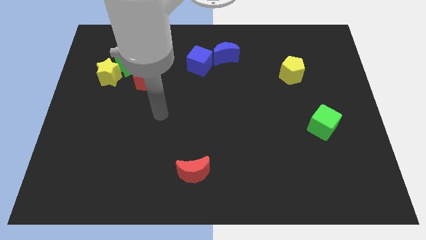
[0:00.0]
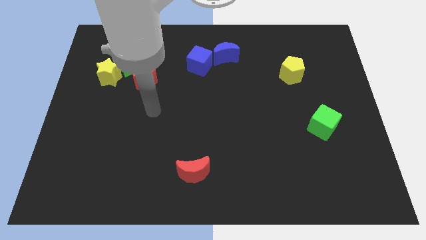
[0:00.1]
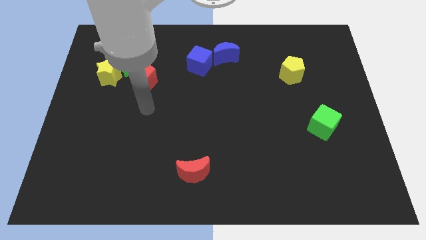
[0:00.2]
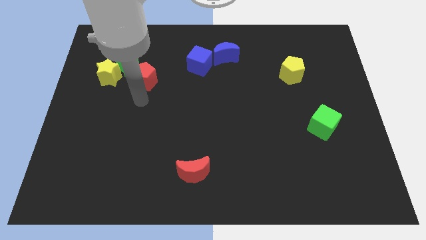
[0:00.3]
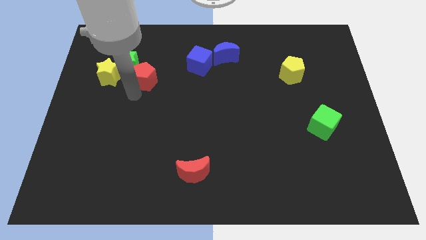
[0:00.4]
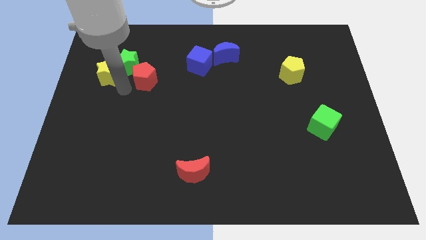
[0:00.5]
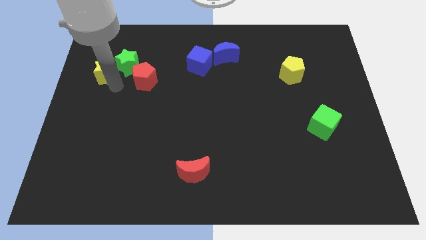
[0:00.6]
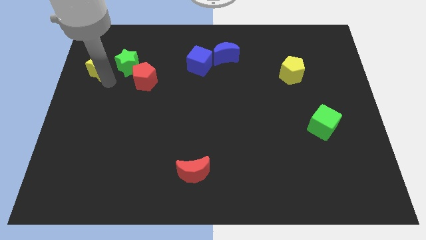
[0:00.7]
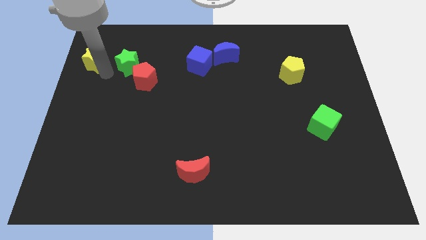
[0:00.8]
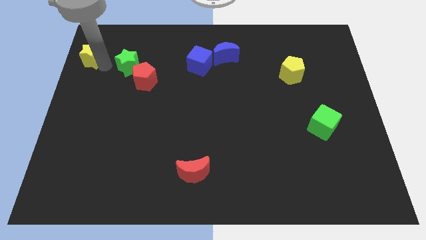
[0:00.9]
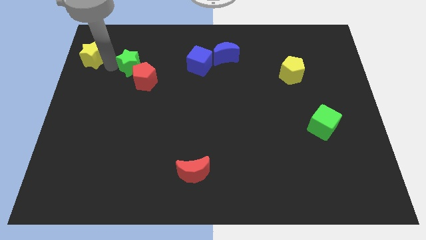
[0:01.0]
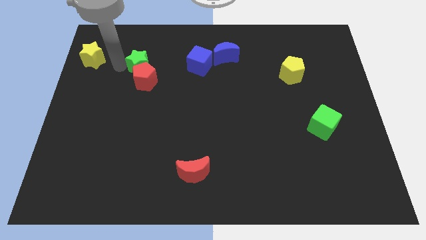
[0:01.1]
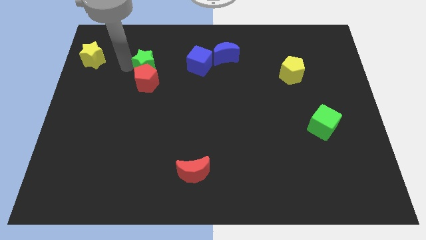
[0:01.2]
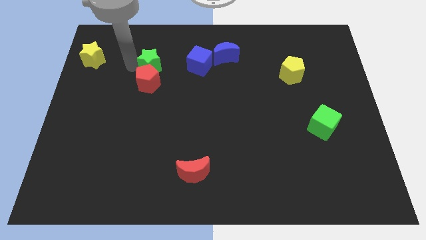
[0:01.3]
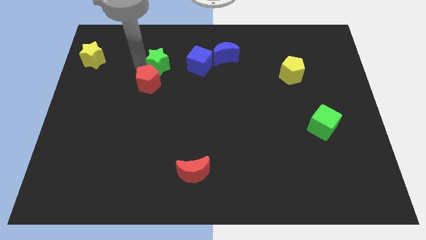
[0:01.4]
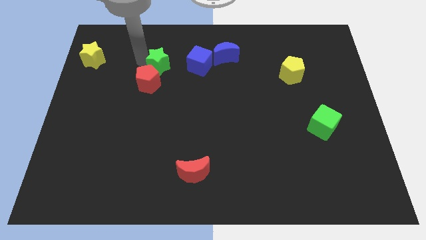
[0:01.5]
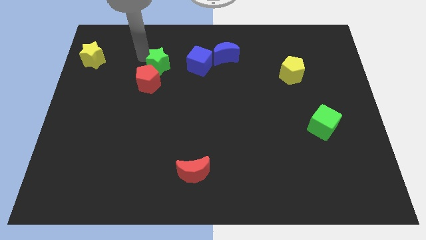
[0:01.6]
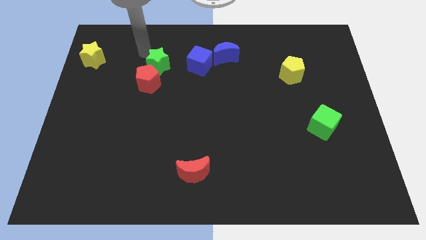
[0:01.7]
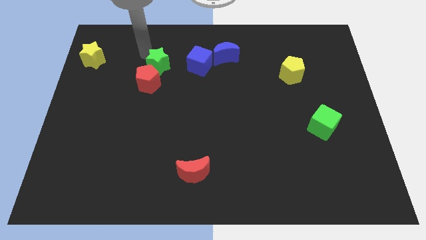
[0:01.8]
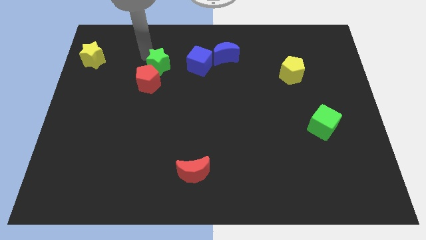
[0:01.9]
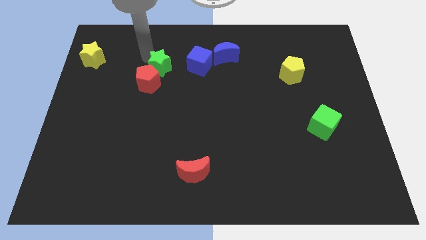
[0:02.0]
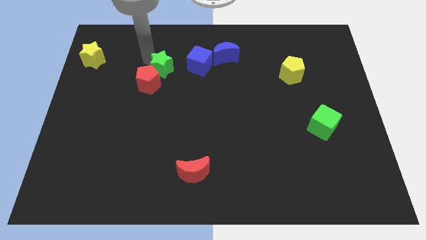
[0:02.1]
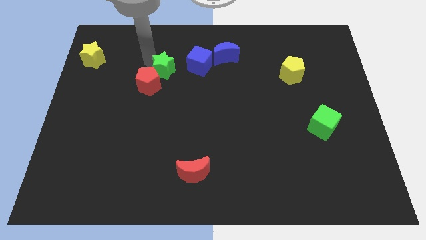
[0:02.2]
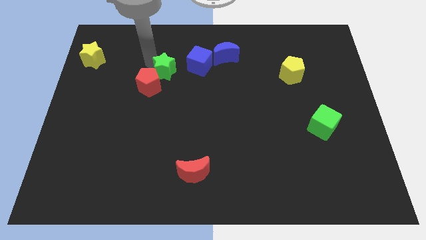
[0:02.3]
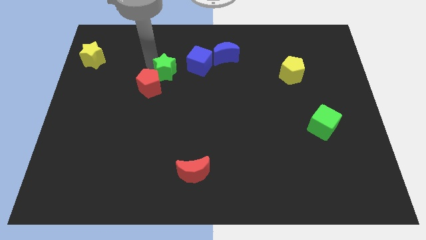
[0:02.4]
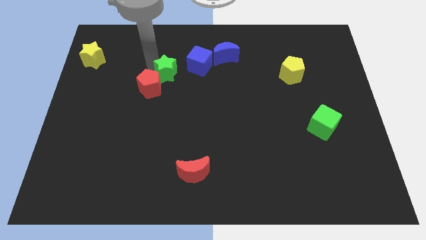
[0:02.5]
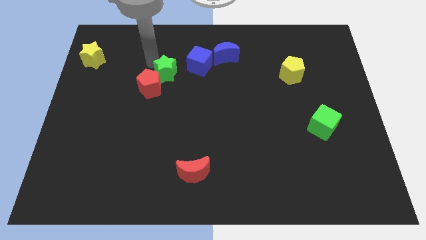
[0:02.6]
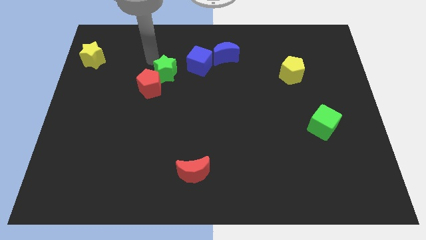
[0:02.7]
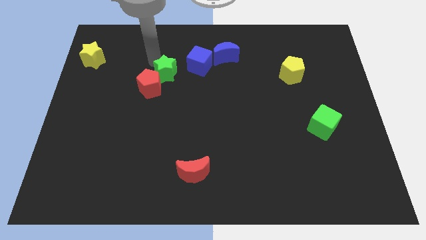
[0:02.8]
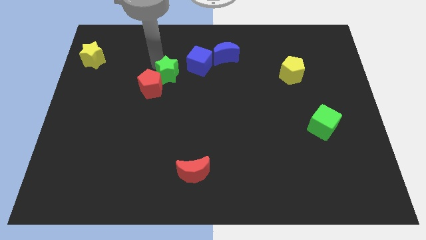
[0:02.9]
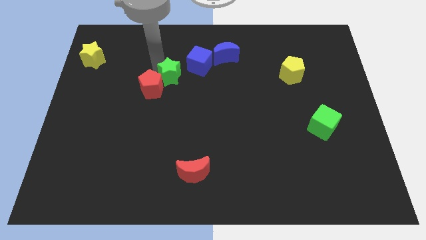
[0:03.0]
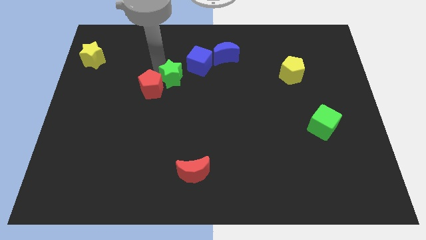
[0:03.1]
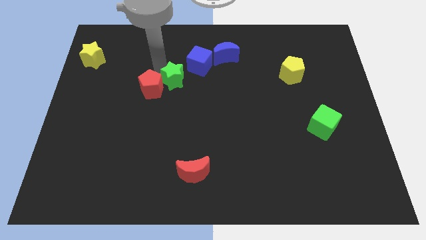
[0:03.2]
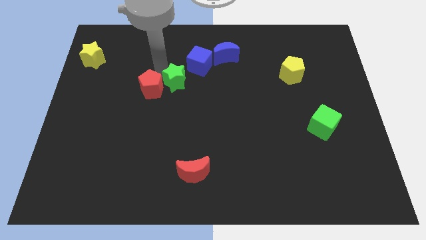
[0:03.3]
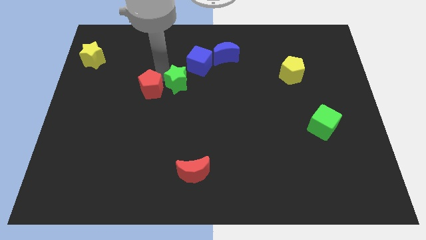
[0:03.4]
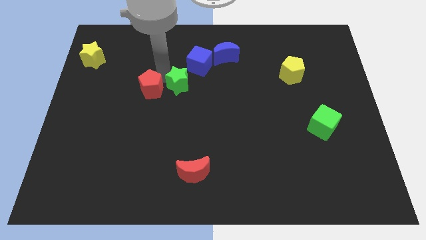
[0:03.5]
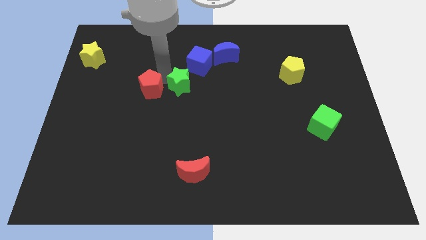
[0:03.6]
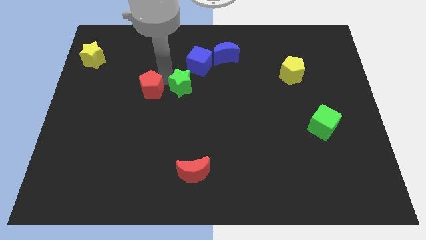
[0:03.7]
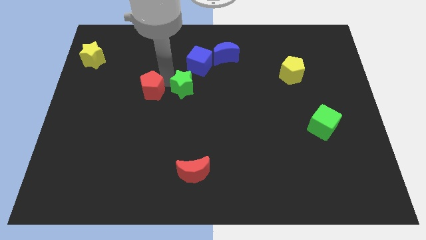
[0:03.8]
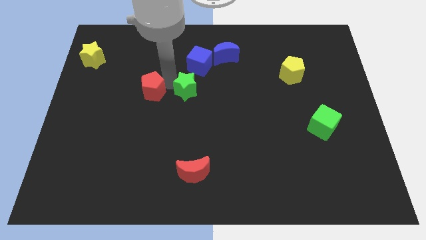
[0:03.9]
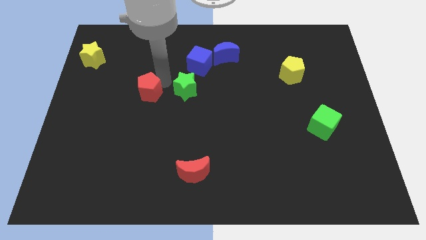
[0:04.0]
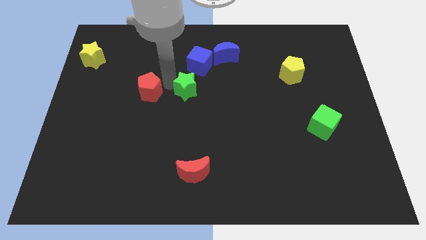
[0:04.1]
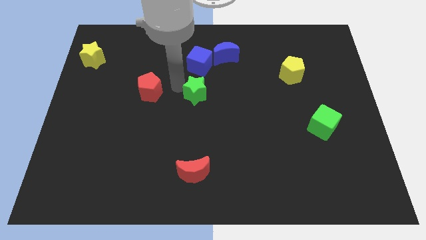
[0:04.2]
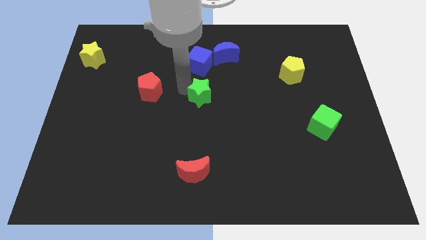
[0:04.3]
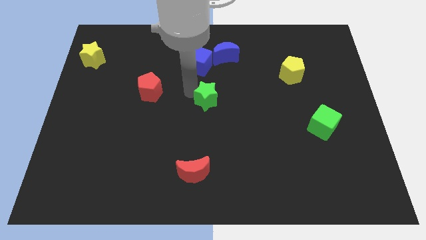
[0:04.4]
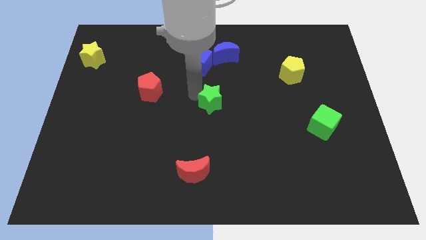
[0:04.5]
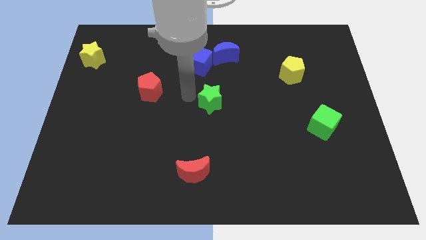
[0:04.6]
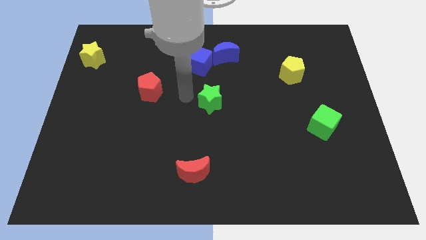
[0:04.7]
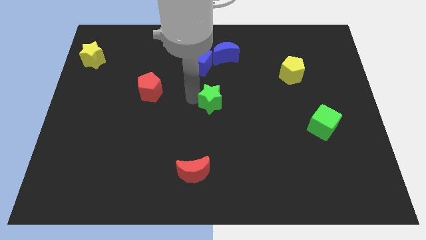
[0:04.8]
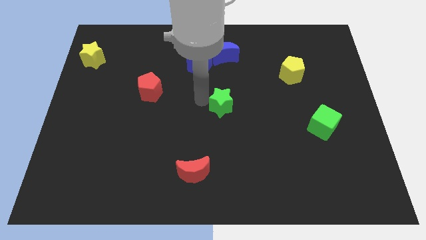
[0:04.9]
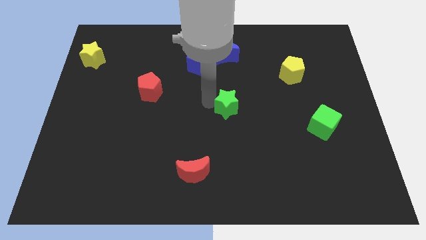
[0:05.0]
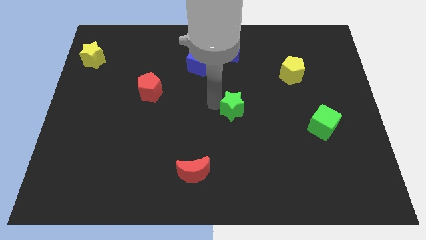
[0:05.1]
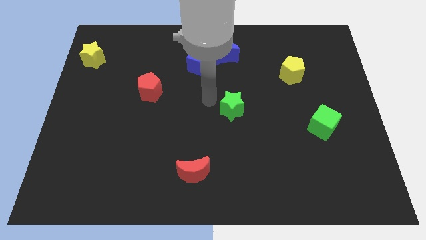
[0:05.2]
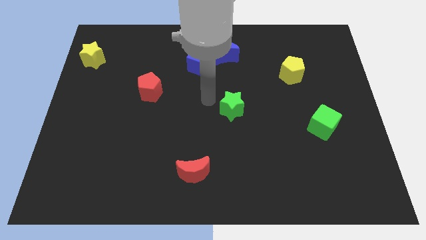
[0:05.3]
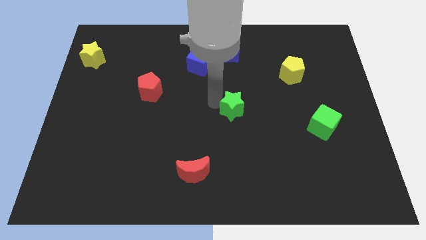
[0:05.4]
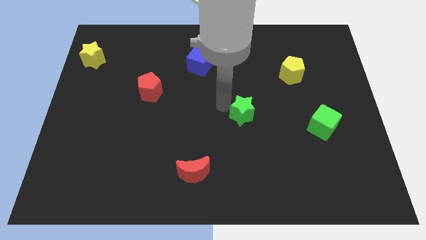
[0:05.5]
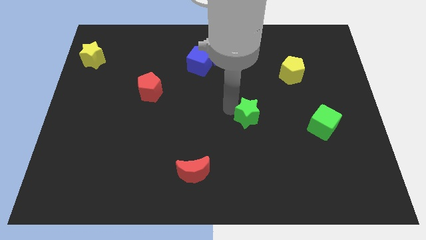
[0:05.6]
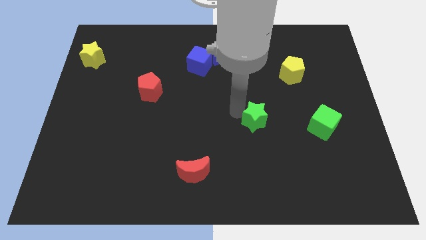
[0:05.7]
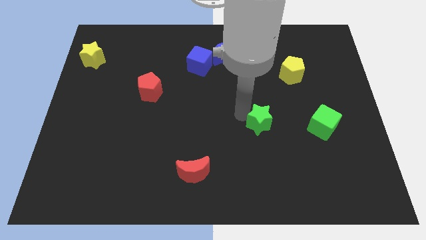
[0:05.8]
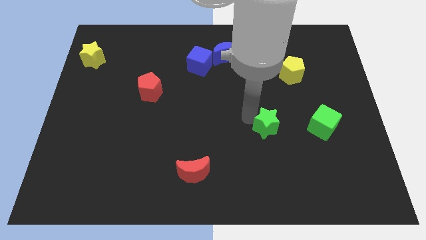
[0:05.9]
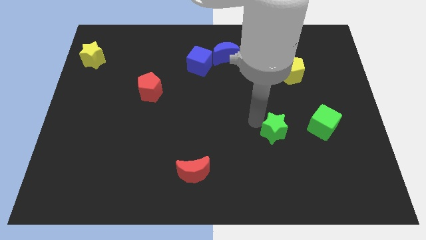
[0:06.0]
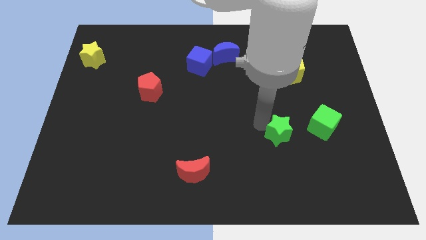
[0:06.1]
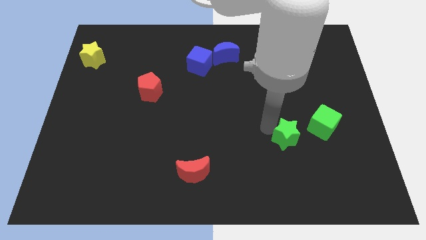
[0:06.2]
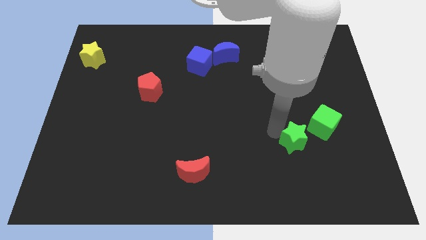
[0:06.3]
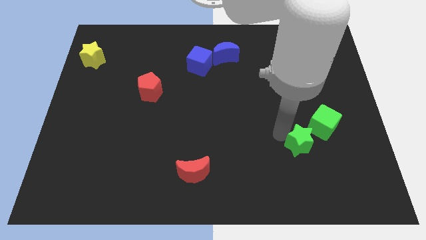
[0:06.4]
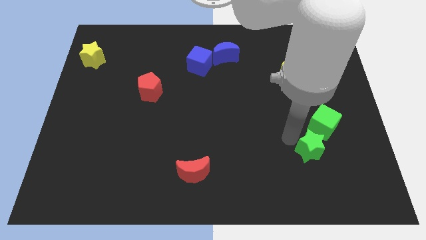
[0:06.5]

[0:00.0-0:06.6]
slide the green star to the bottom side of the green cube
